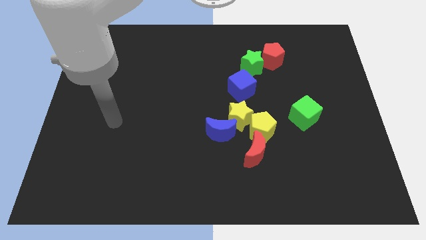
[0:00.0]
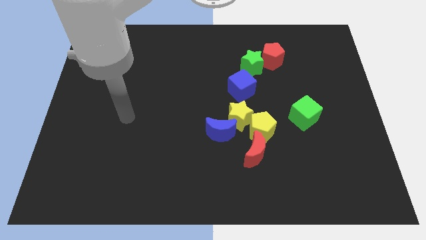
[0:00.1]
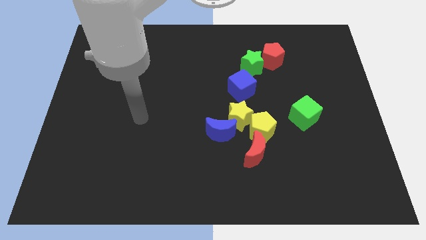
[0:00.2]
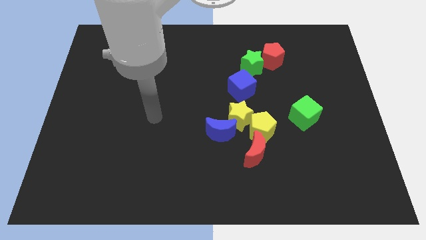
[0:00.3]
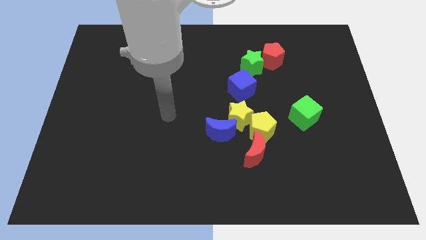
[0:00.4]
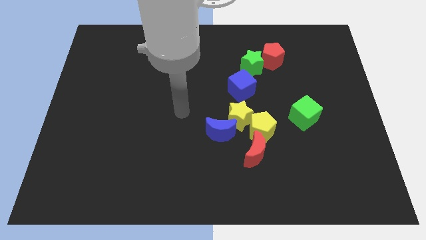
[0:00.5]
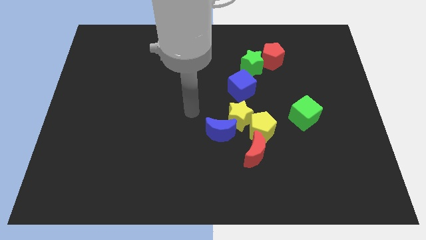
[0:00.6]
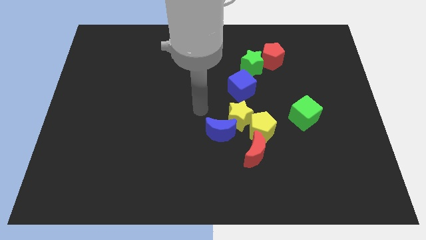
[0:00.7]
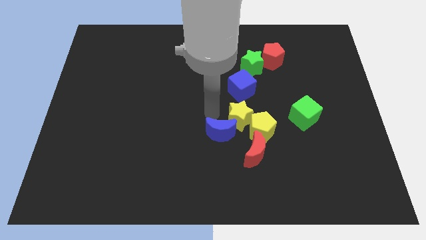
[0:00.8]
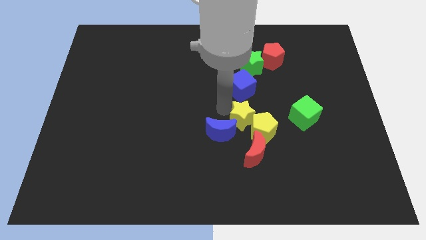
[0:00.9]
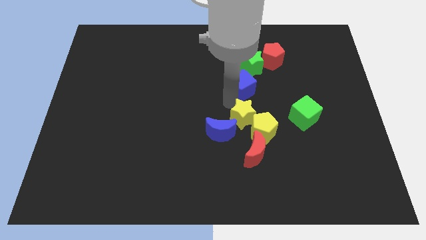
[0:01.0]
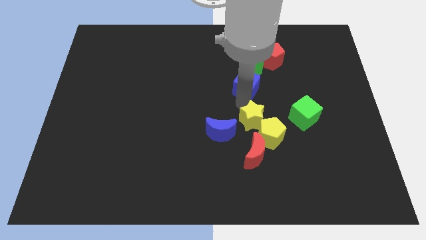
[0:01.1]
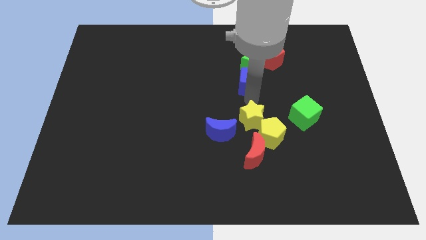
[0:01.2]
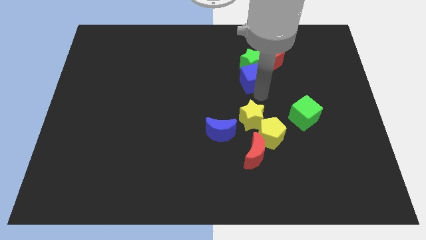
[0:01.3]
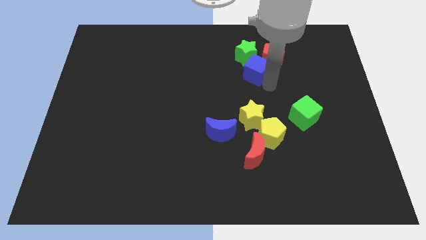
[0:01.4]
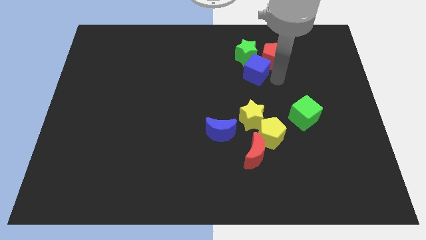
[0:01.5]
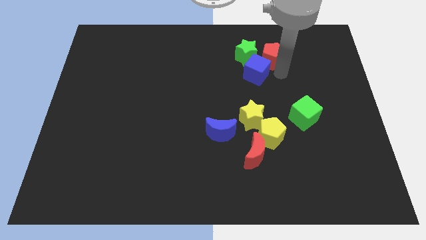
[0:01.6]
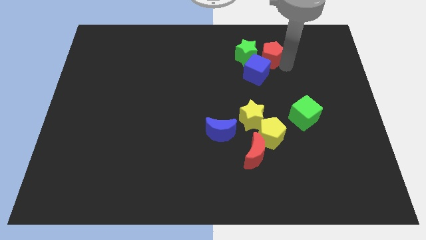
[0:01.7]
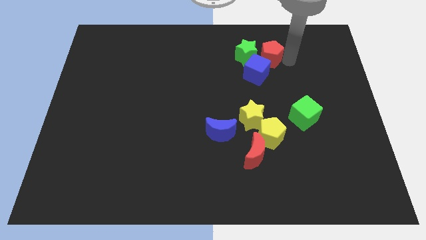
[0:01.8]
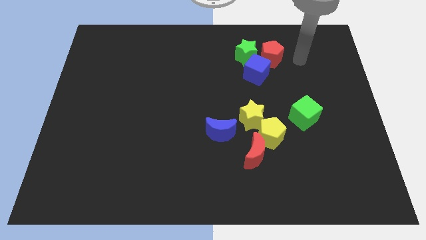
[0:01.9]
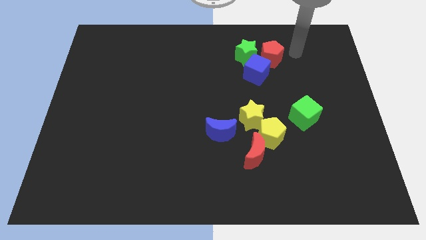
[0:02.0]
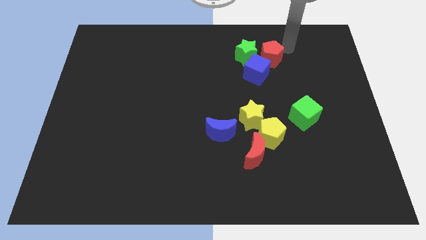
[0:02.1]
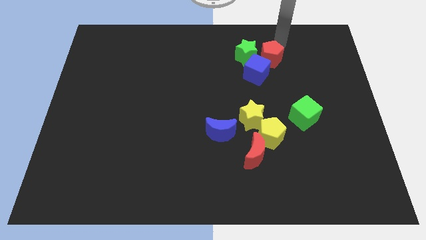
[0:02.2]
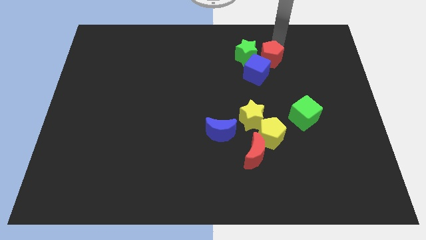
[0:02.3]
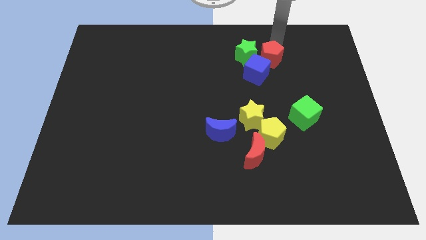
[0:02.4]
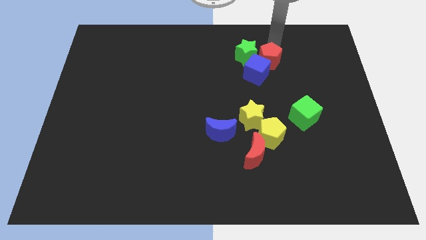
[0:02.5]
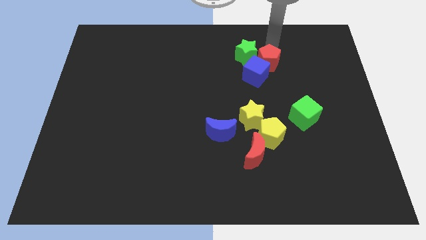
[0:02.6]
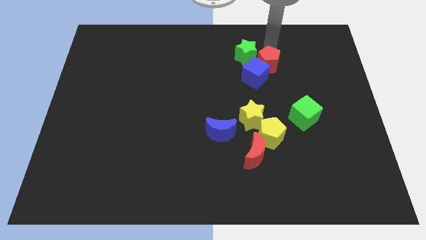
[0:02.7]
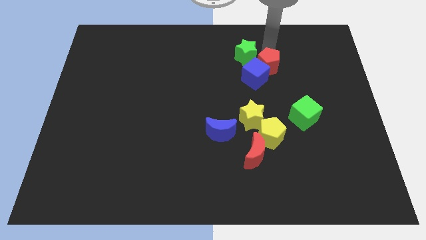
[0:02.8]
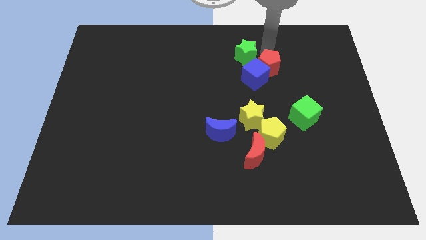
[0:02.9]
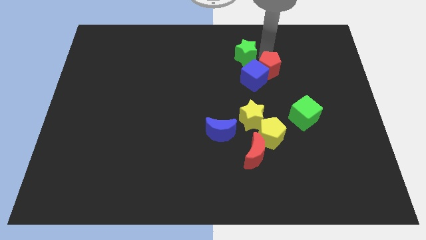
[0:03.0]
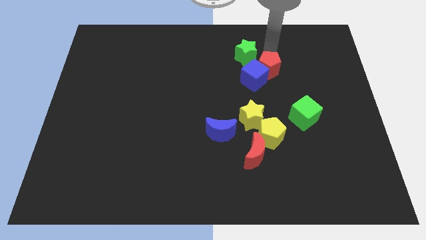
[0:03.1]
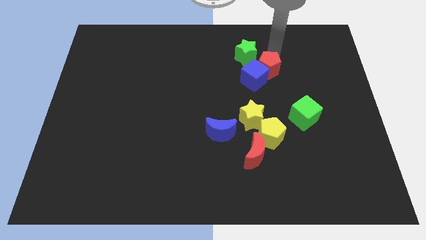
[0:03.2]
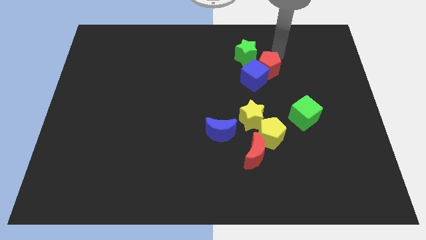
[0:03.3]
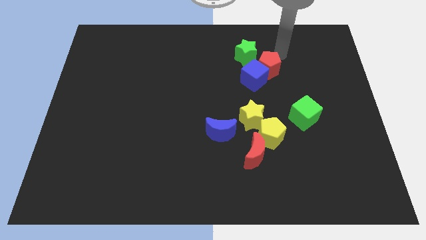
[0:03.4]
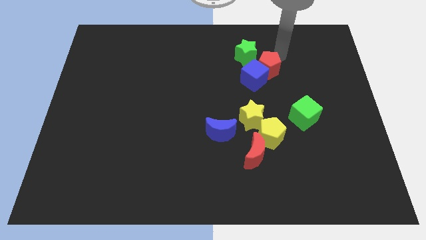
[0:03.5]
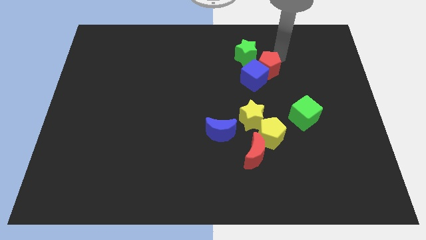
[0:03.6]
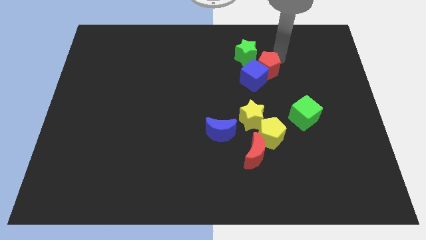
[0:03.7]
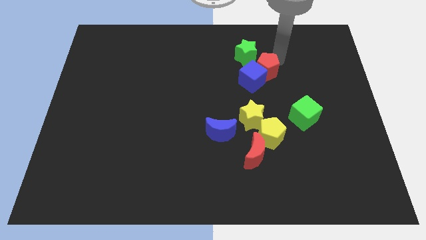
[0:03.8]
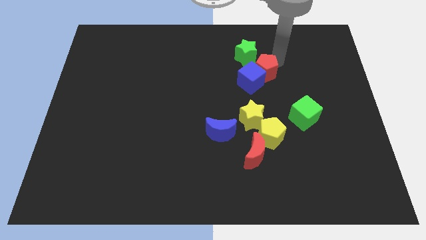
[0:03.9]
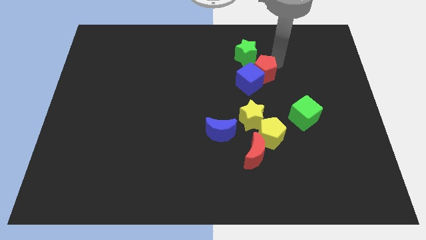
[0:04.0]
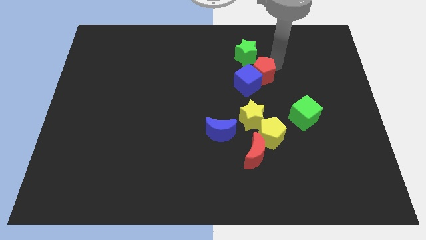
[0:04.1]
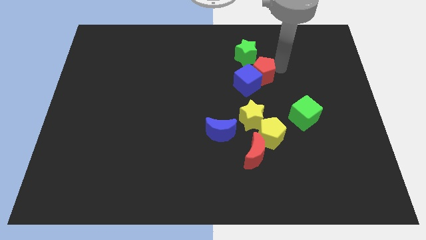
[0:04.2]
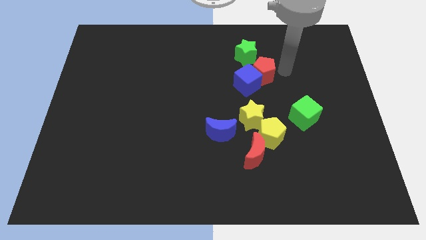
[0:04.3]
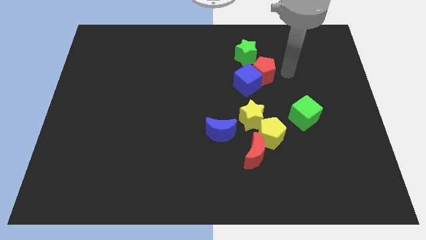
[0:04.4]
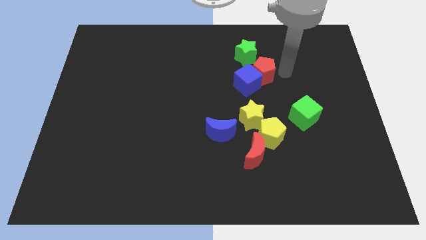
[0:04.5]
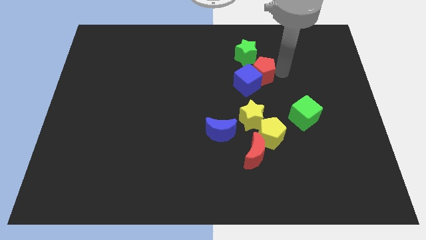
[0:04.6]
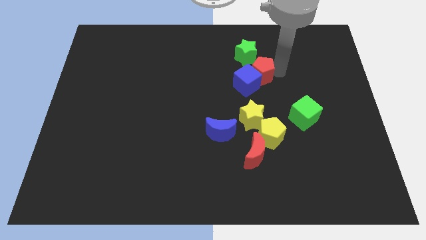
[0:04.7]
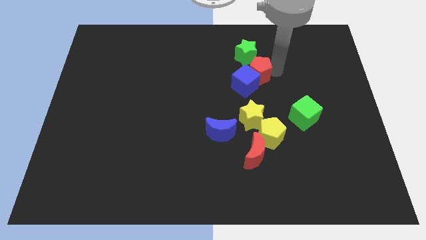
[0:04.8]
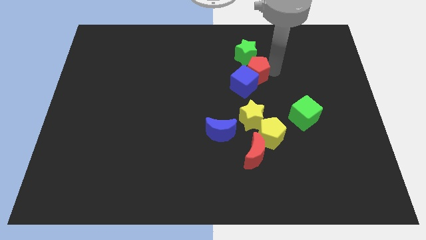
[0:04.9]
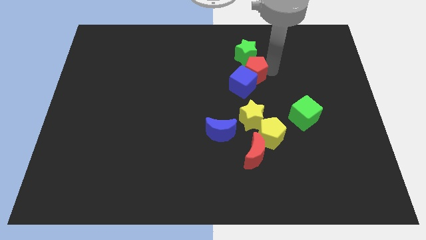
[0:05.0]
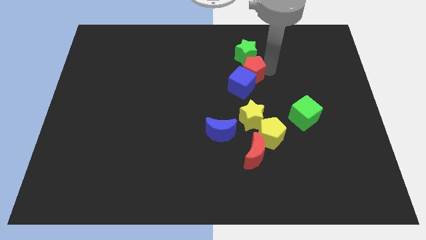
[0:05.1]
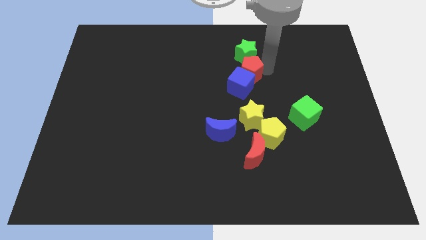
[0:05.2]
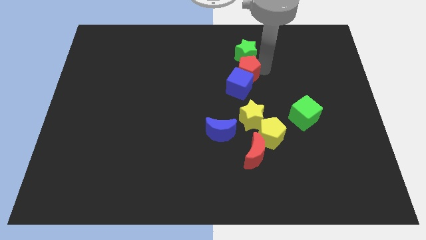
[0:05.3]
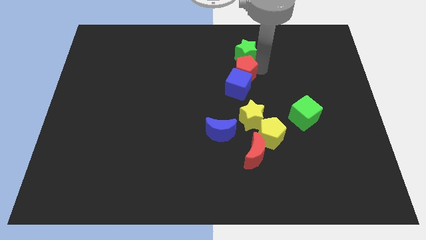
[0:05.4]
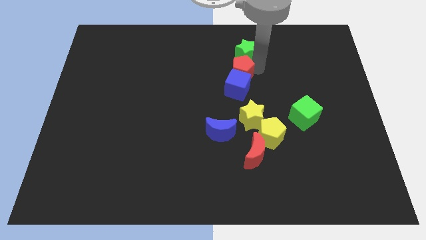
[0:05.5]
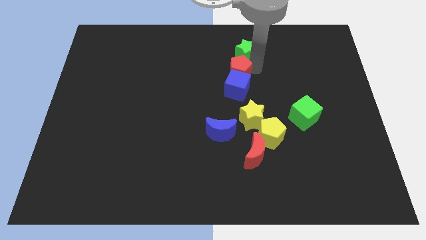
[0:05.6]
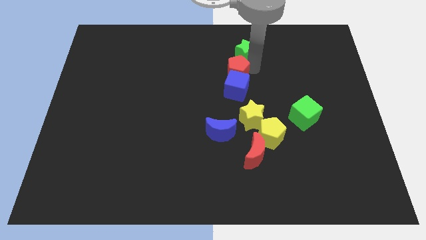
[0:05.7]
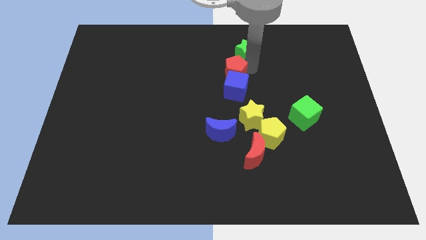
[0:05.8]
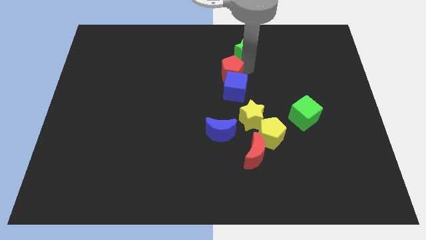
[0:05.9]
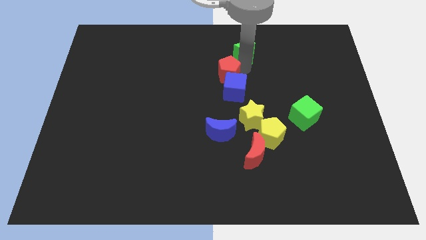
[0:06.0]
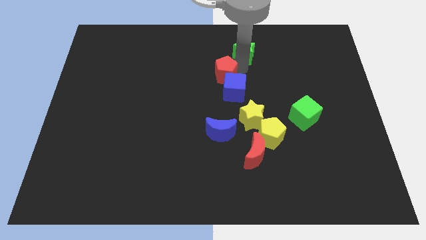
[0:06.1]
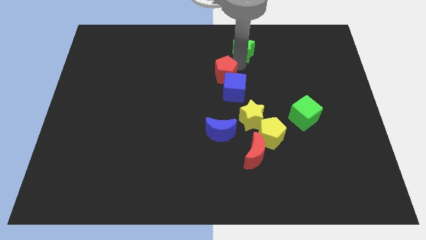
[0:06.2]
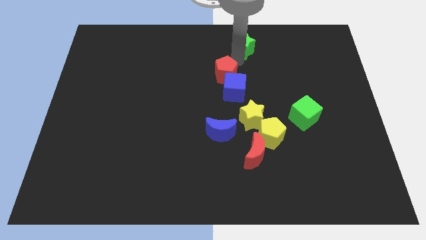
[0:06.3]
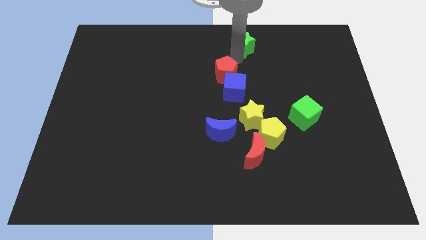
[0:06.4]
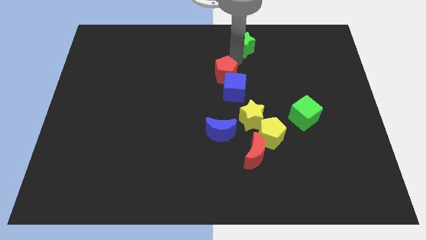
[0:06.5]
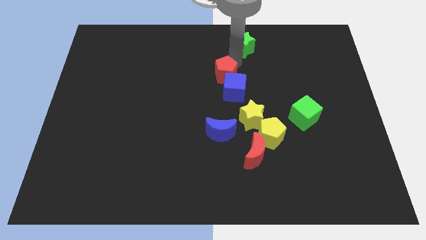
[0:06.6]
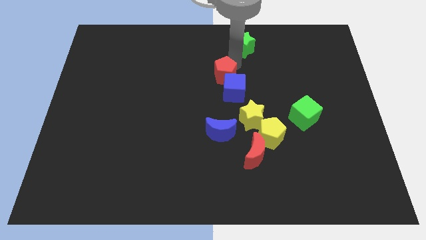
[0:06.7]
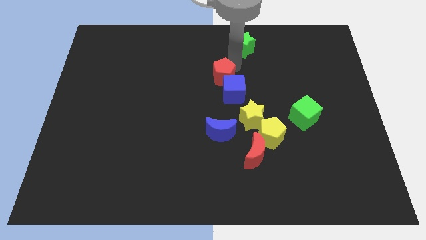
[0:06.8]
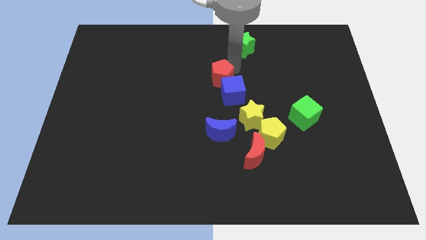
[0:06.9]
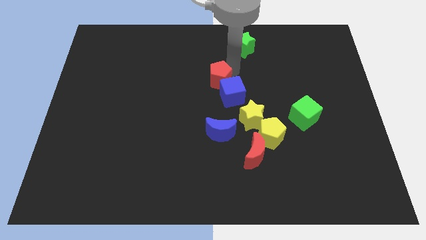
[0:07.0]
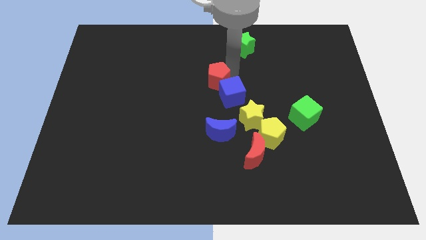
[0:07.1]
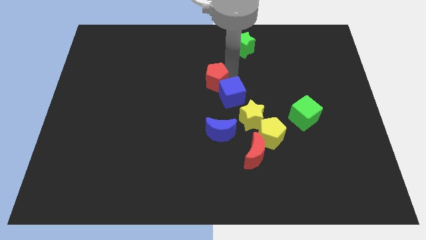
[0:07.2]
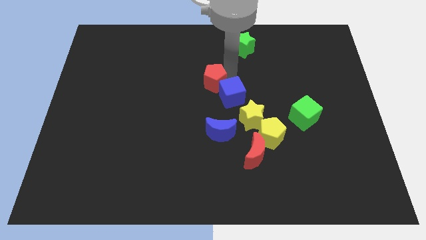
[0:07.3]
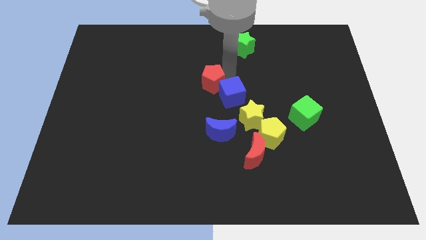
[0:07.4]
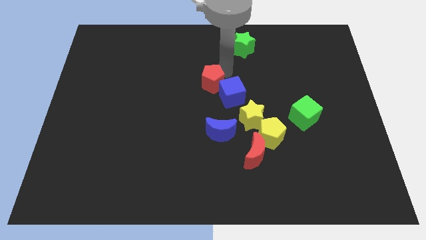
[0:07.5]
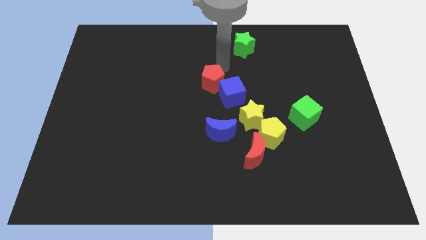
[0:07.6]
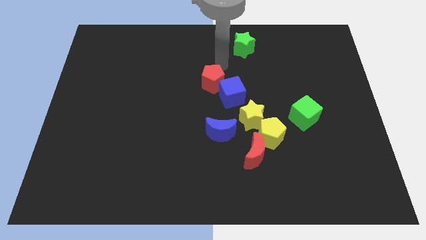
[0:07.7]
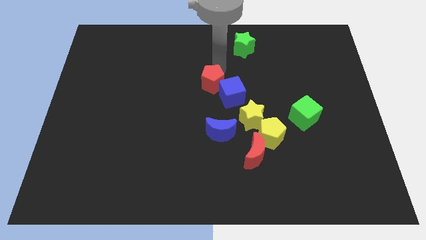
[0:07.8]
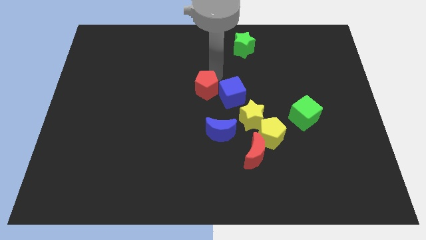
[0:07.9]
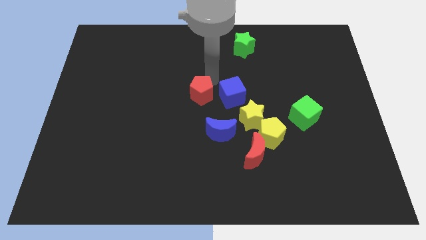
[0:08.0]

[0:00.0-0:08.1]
slide the red pentagon diagonally downwards and to the left

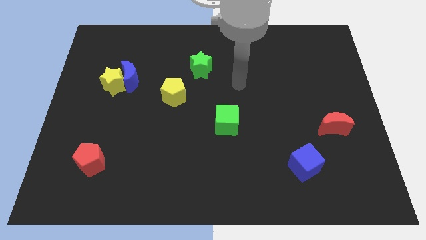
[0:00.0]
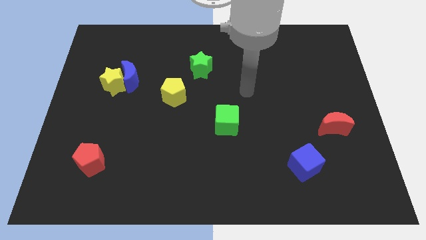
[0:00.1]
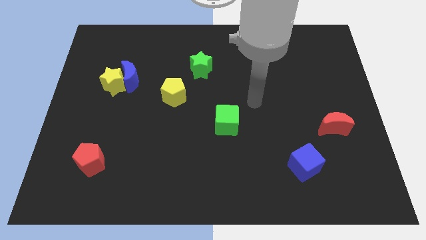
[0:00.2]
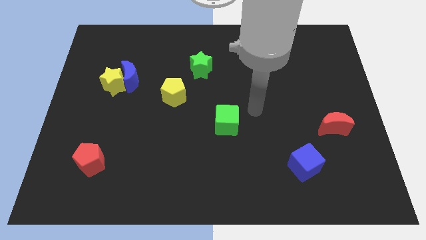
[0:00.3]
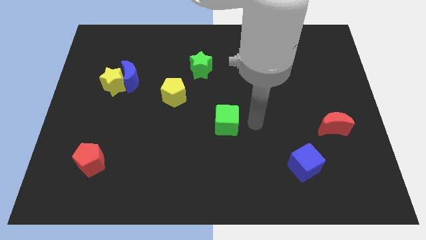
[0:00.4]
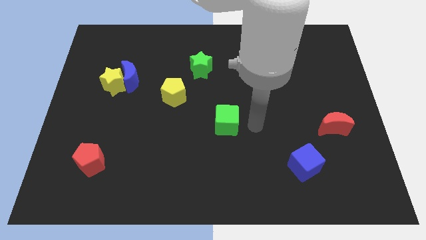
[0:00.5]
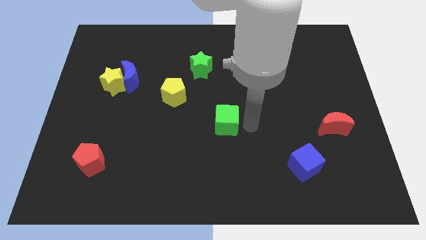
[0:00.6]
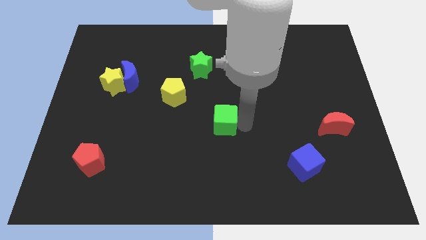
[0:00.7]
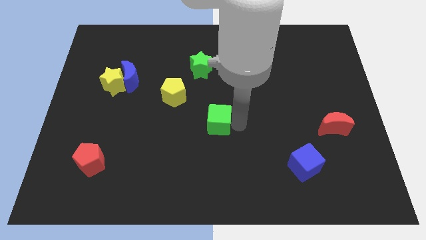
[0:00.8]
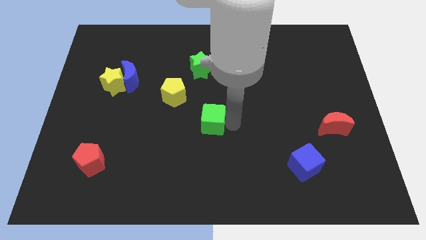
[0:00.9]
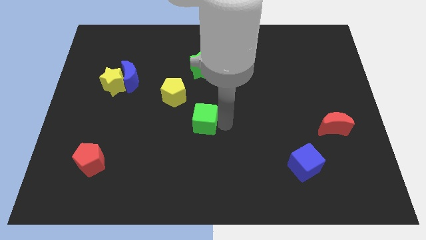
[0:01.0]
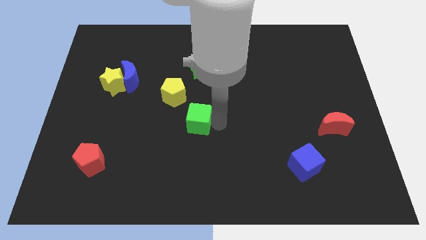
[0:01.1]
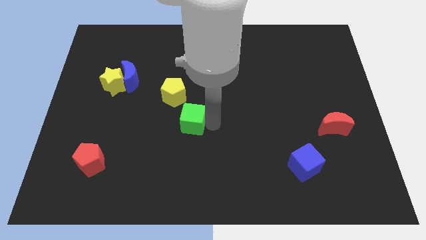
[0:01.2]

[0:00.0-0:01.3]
slightly slide the green cube left
